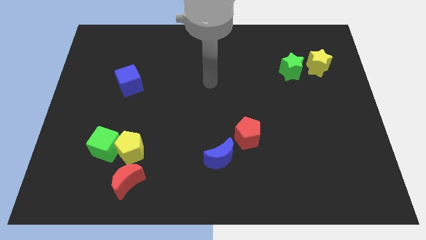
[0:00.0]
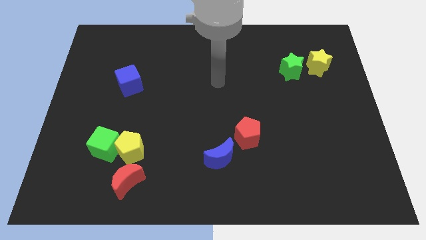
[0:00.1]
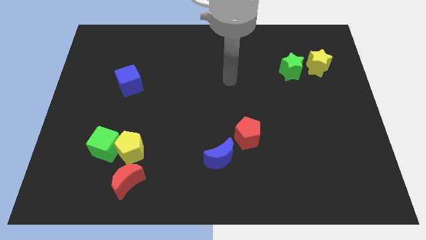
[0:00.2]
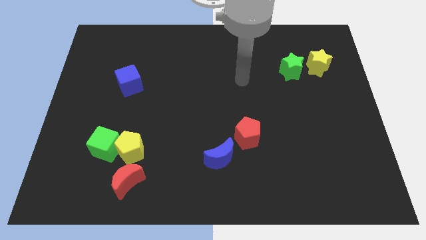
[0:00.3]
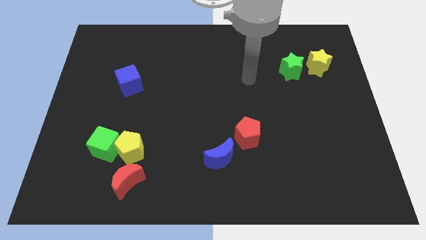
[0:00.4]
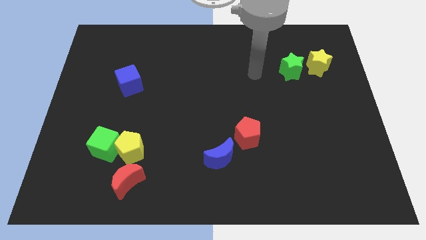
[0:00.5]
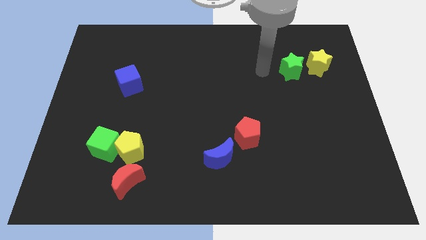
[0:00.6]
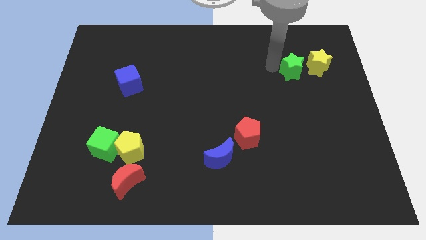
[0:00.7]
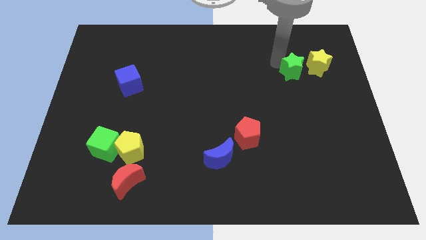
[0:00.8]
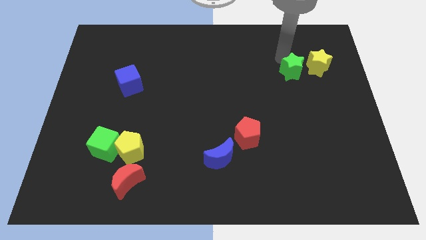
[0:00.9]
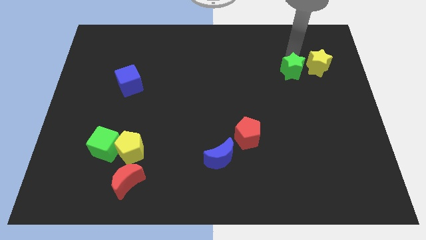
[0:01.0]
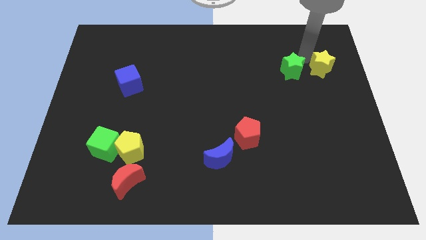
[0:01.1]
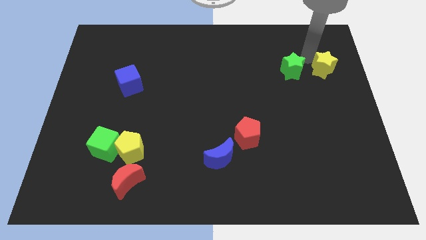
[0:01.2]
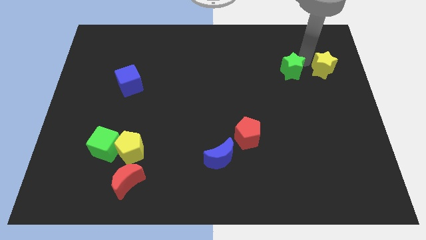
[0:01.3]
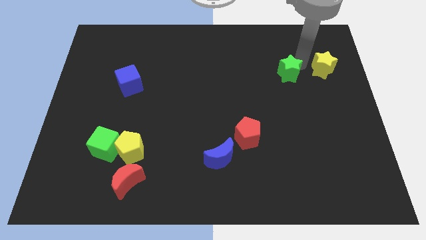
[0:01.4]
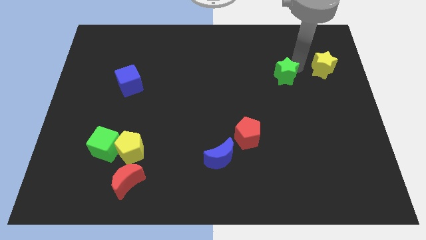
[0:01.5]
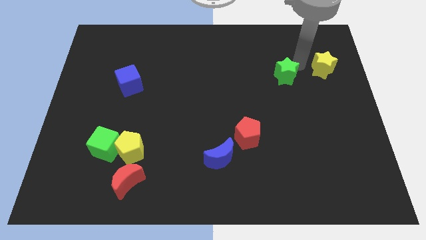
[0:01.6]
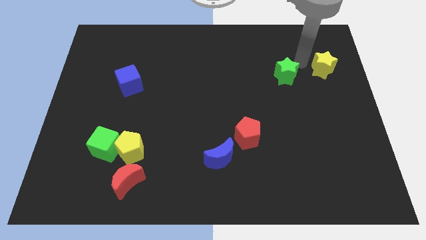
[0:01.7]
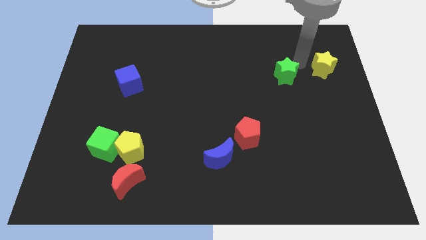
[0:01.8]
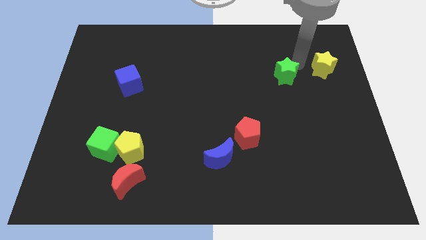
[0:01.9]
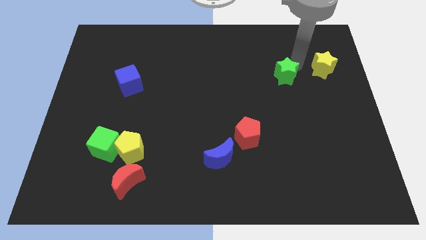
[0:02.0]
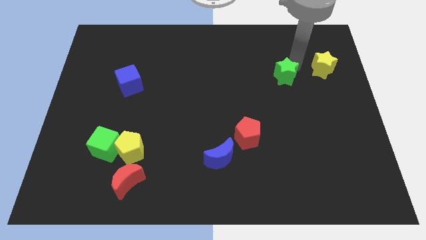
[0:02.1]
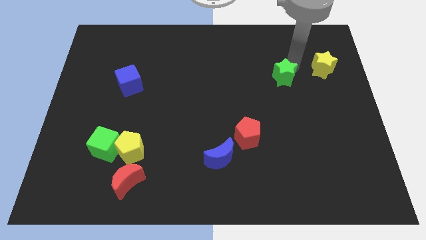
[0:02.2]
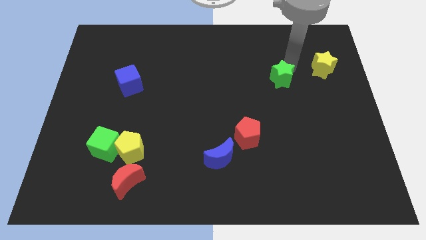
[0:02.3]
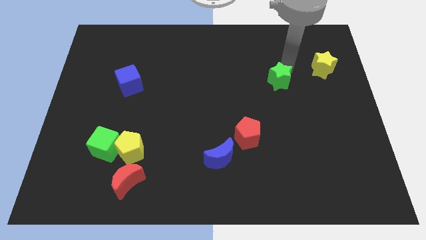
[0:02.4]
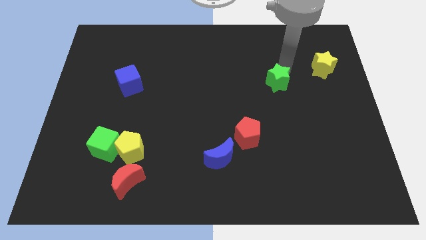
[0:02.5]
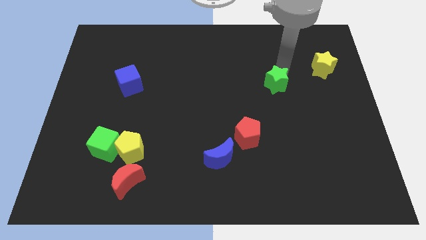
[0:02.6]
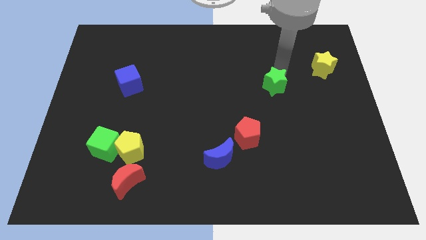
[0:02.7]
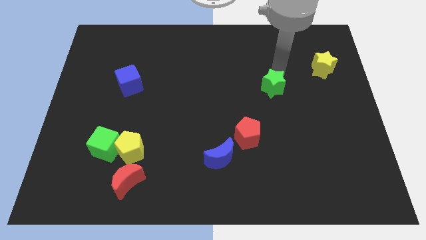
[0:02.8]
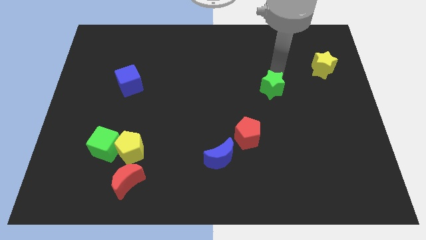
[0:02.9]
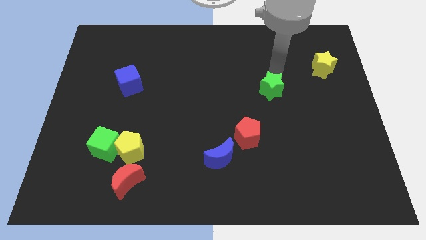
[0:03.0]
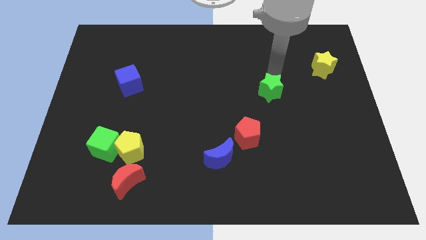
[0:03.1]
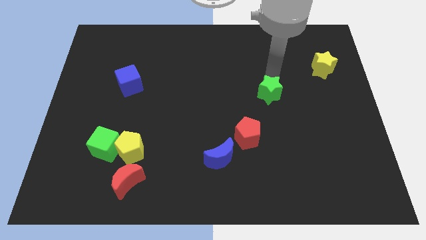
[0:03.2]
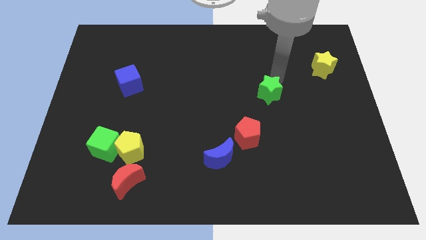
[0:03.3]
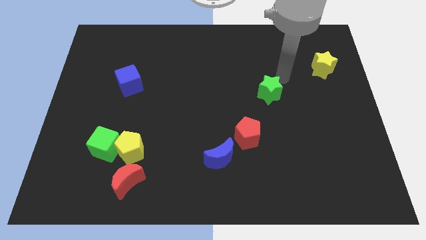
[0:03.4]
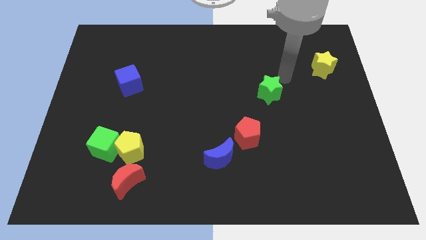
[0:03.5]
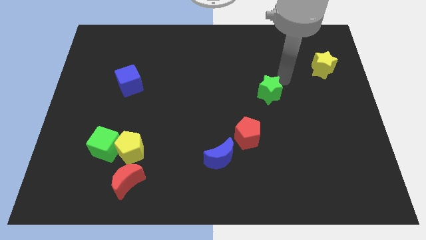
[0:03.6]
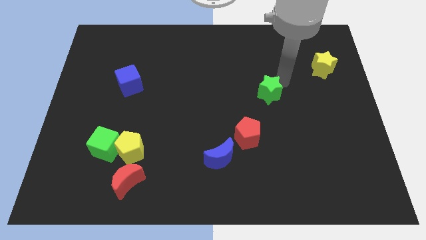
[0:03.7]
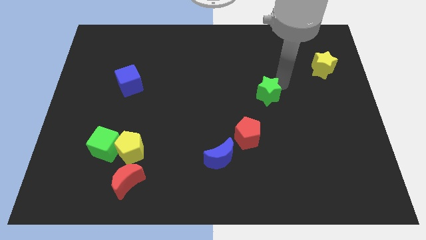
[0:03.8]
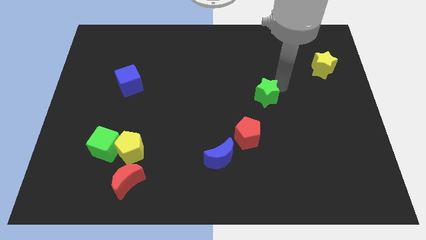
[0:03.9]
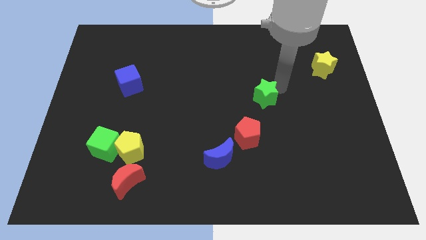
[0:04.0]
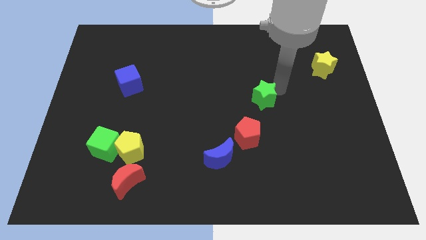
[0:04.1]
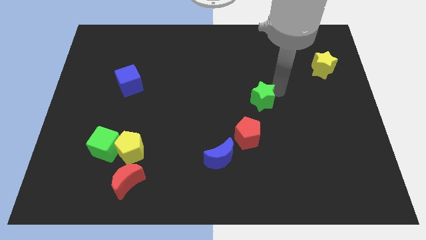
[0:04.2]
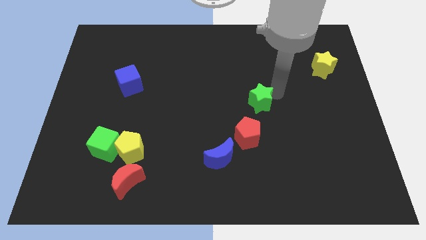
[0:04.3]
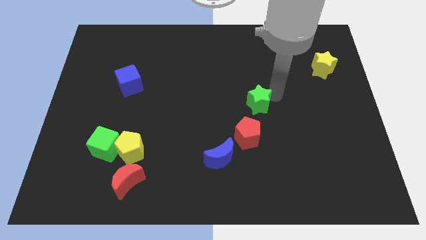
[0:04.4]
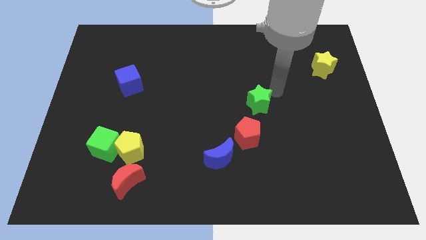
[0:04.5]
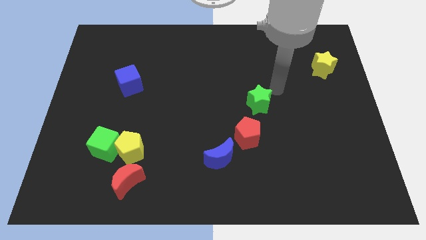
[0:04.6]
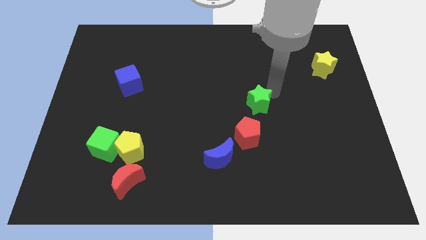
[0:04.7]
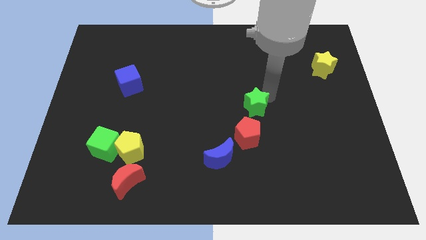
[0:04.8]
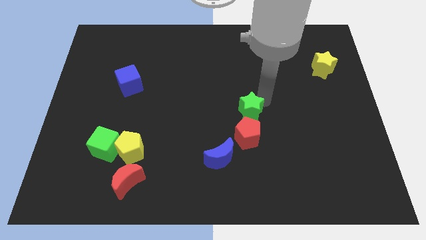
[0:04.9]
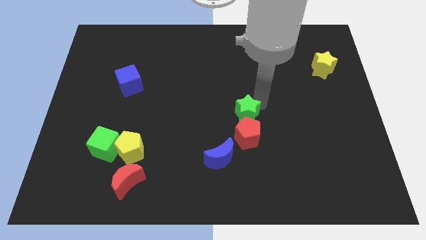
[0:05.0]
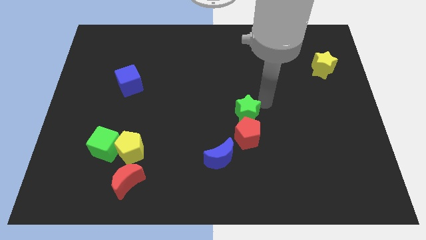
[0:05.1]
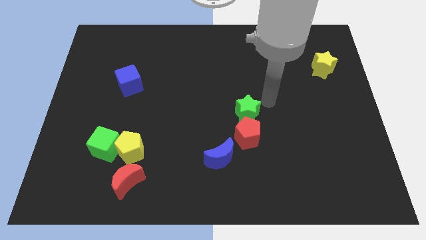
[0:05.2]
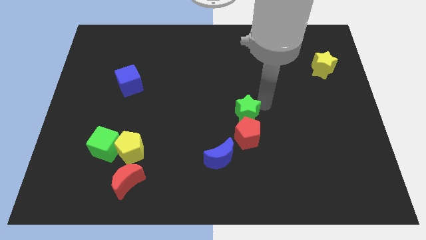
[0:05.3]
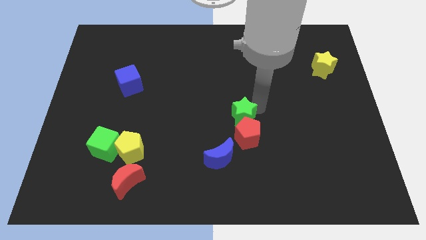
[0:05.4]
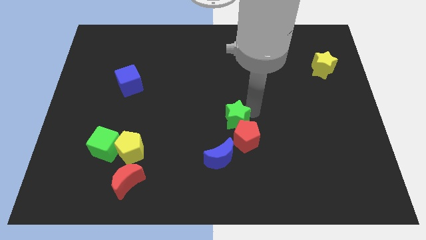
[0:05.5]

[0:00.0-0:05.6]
move the green star down and left

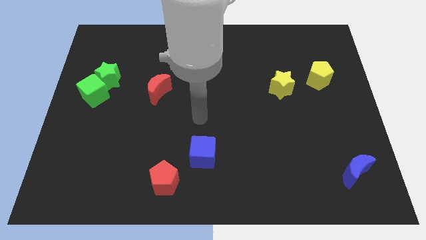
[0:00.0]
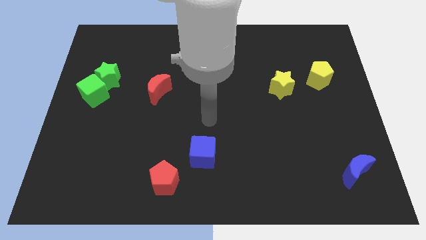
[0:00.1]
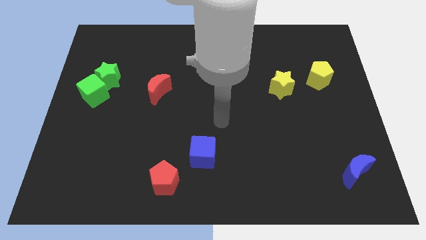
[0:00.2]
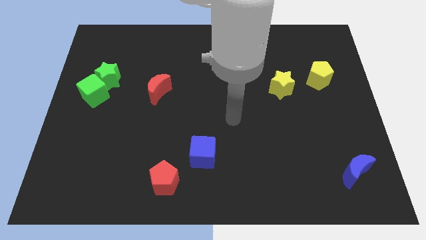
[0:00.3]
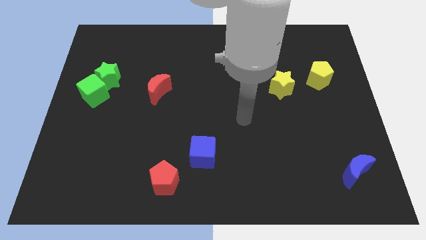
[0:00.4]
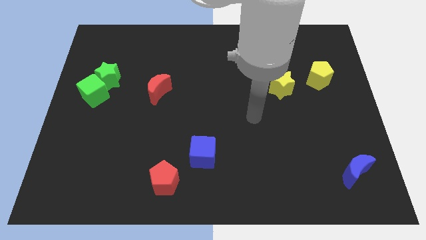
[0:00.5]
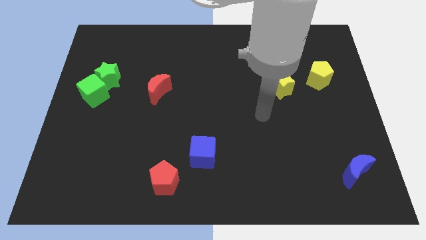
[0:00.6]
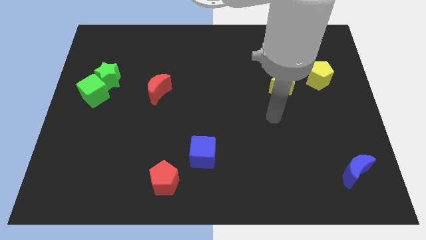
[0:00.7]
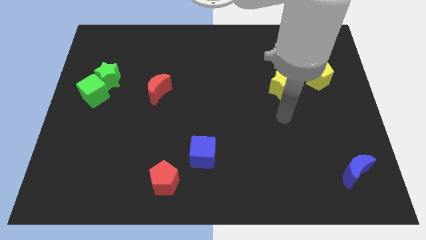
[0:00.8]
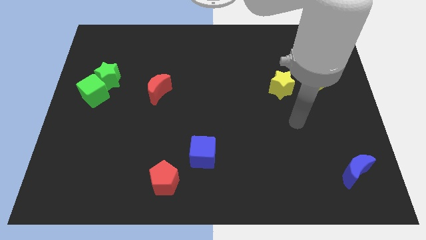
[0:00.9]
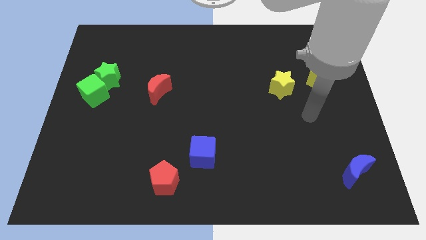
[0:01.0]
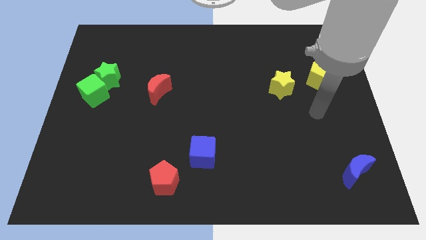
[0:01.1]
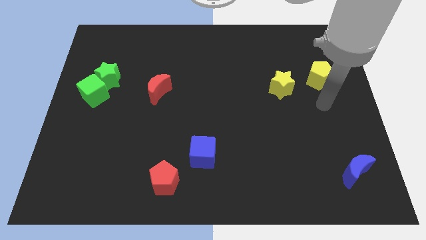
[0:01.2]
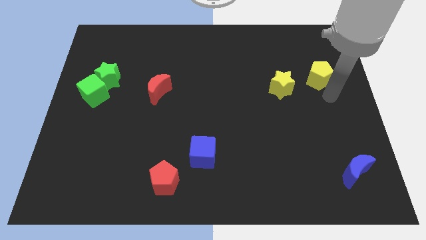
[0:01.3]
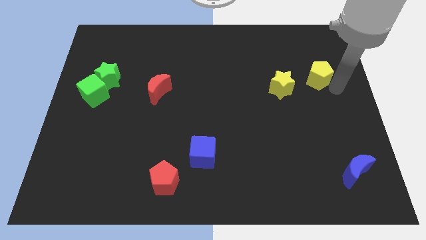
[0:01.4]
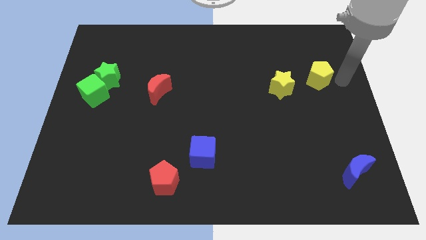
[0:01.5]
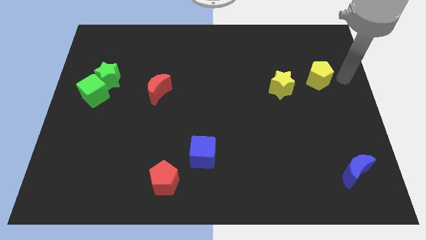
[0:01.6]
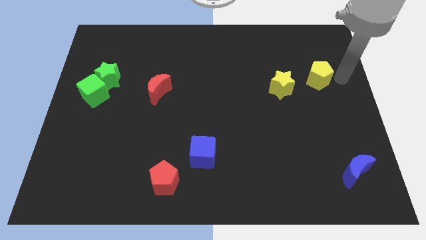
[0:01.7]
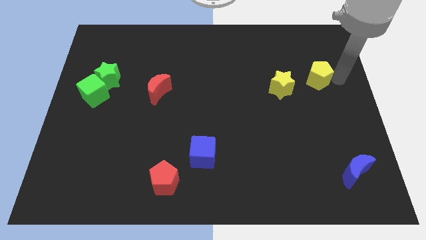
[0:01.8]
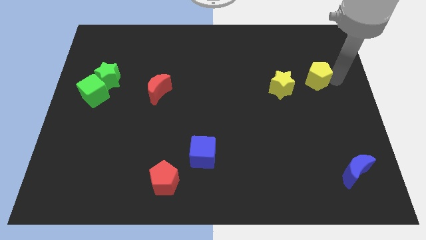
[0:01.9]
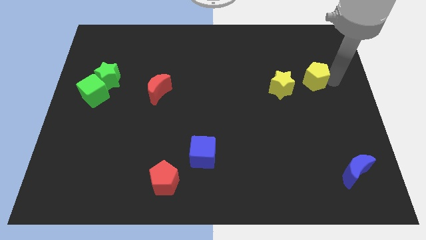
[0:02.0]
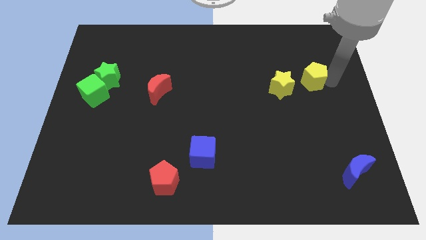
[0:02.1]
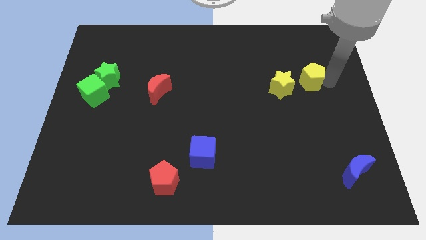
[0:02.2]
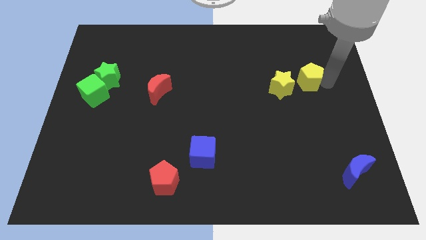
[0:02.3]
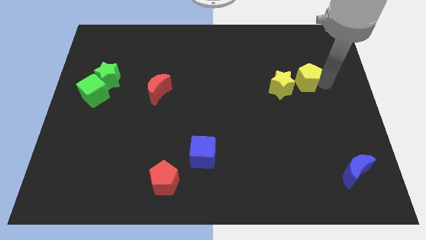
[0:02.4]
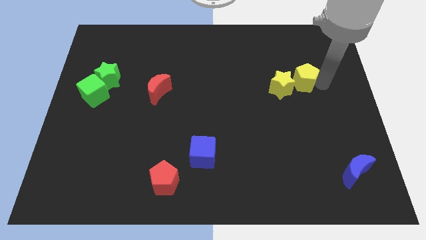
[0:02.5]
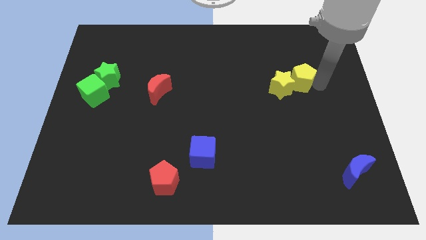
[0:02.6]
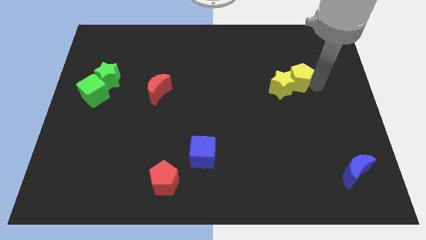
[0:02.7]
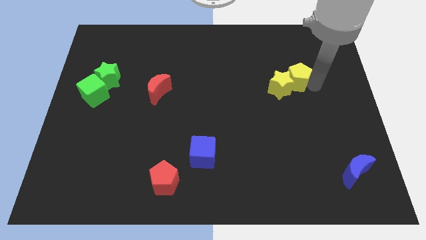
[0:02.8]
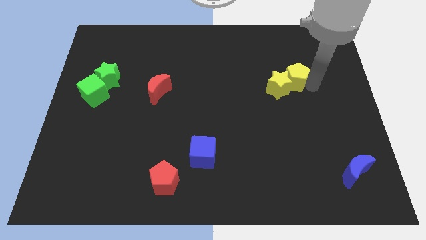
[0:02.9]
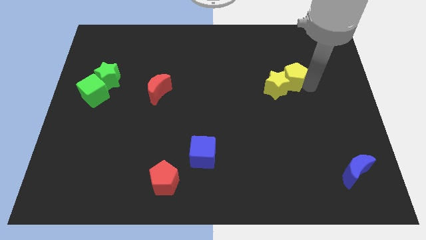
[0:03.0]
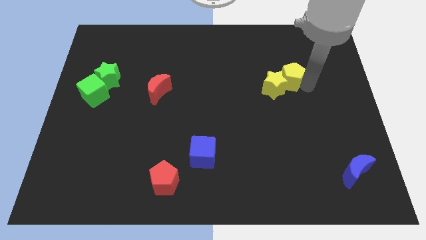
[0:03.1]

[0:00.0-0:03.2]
slightly move the yellow pentagon left
